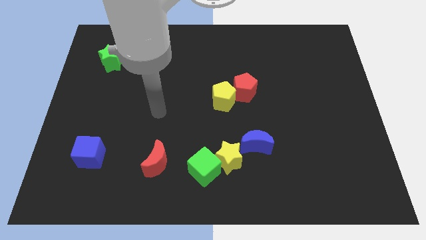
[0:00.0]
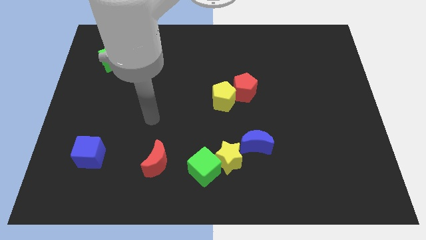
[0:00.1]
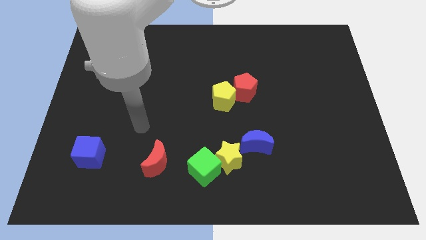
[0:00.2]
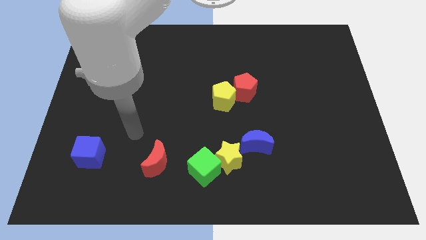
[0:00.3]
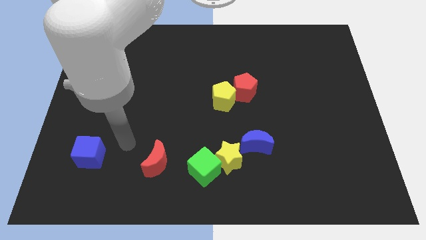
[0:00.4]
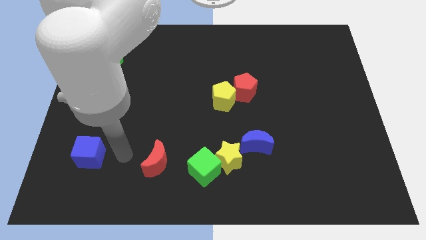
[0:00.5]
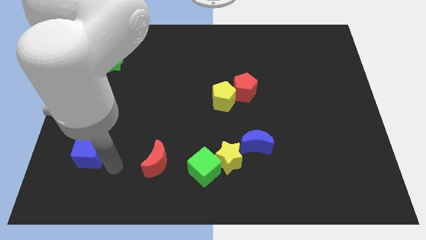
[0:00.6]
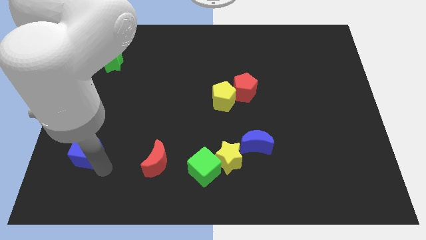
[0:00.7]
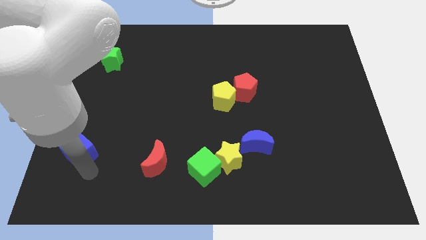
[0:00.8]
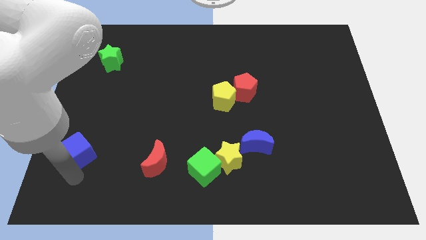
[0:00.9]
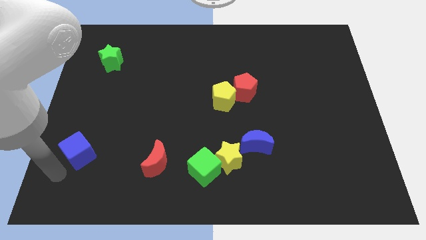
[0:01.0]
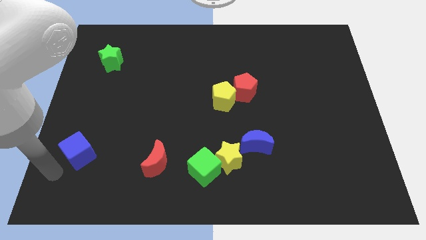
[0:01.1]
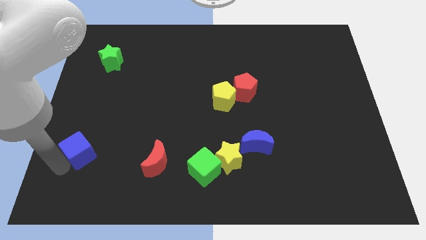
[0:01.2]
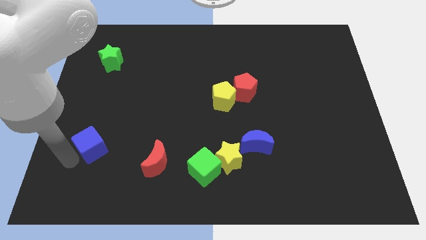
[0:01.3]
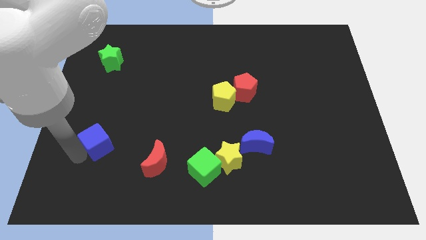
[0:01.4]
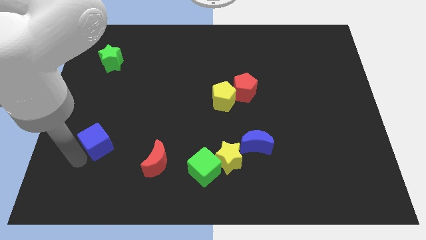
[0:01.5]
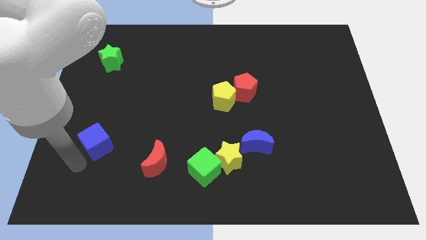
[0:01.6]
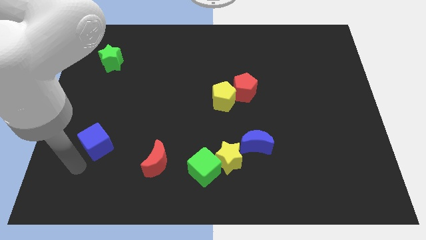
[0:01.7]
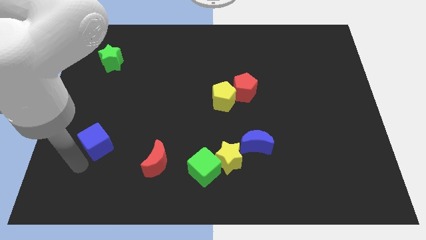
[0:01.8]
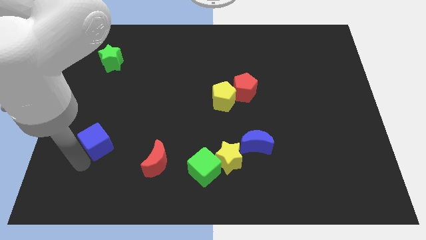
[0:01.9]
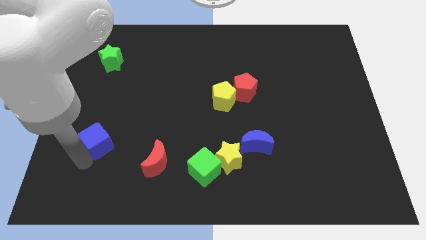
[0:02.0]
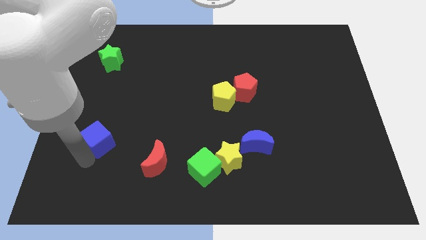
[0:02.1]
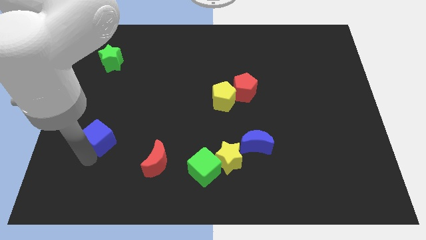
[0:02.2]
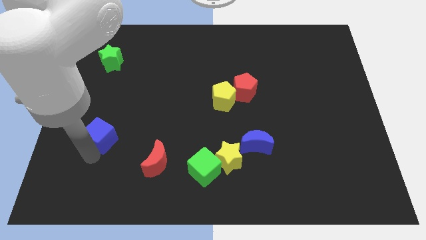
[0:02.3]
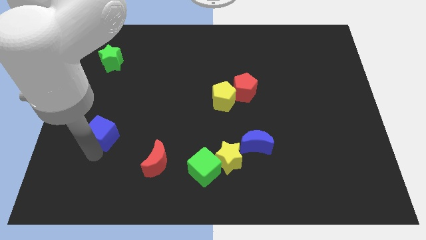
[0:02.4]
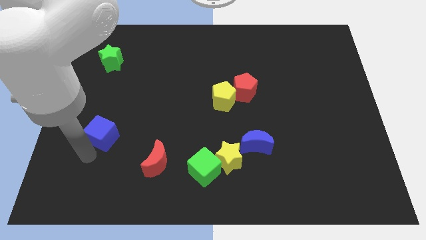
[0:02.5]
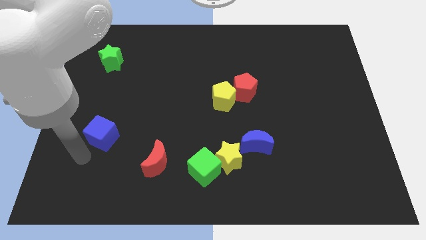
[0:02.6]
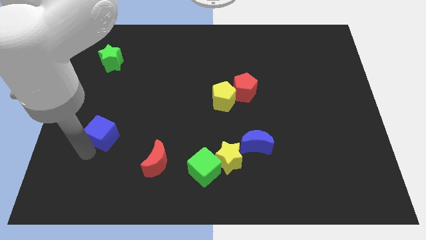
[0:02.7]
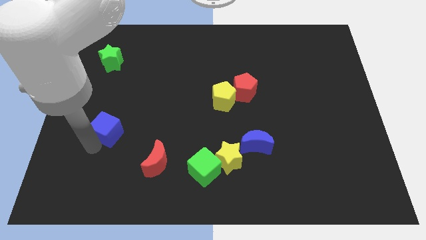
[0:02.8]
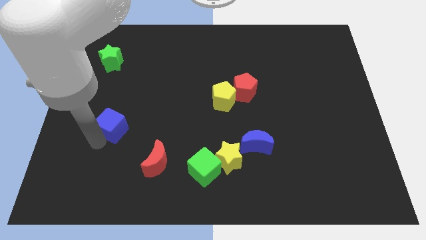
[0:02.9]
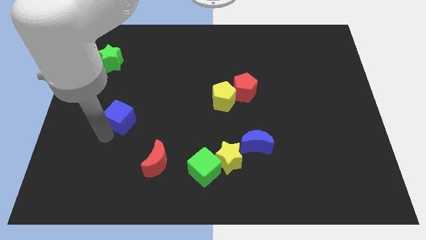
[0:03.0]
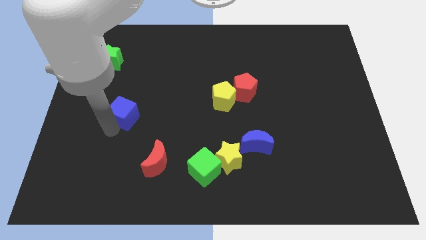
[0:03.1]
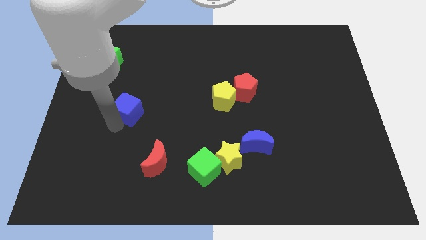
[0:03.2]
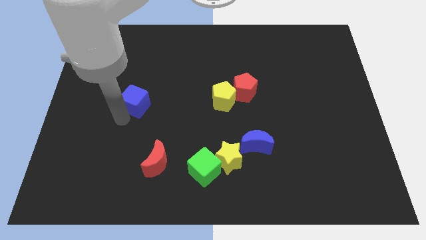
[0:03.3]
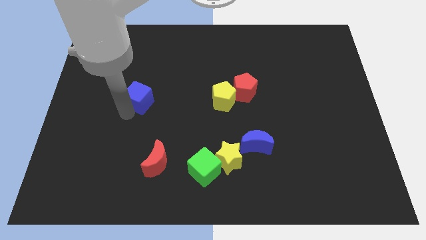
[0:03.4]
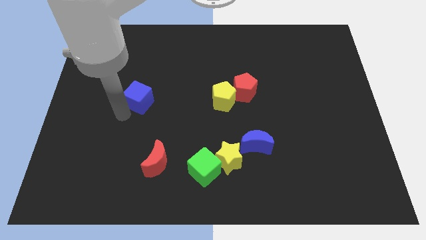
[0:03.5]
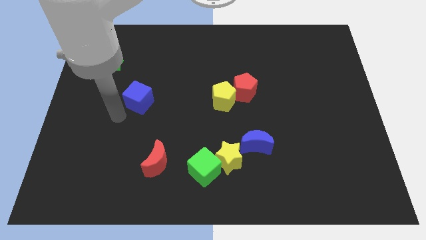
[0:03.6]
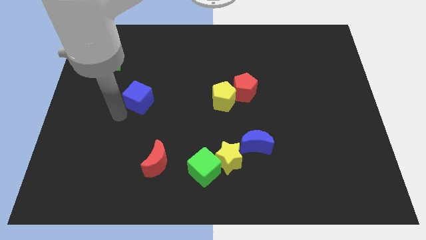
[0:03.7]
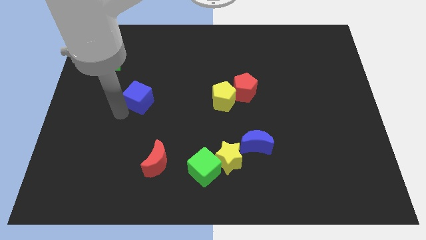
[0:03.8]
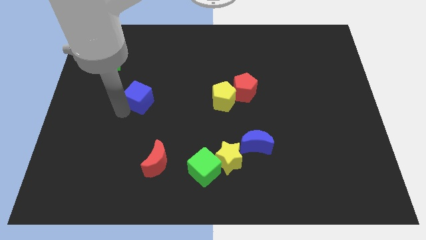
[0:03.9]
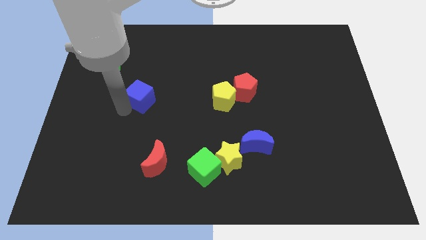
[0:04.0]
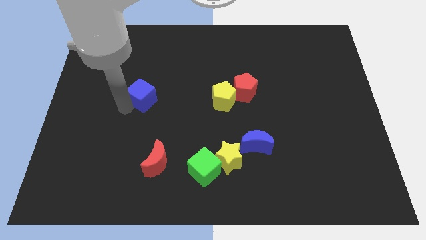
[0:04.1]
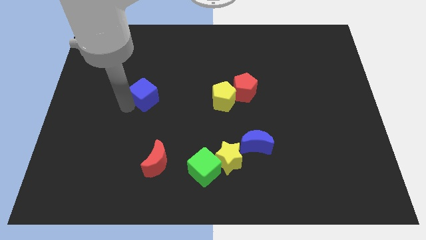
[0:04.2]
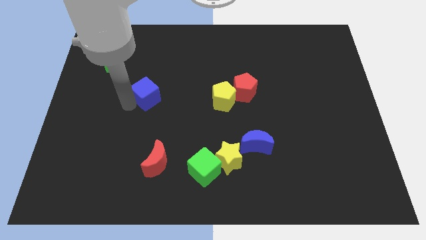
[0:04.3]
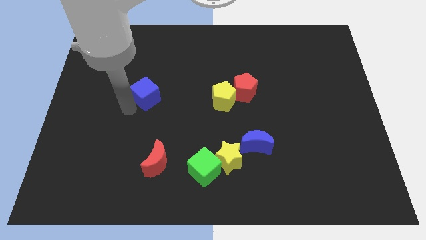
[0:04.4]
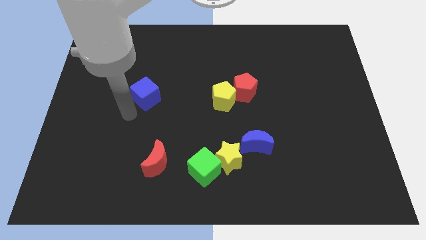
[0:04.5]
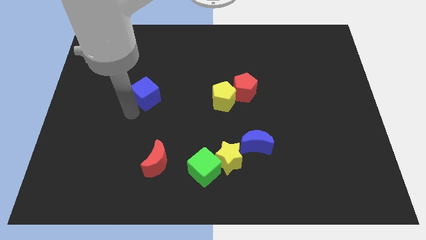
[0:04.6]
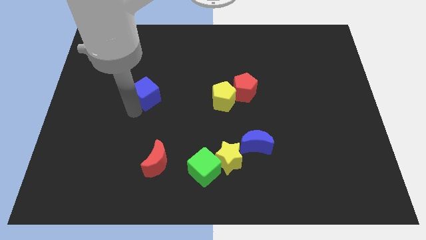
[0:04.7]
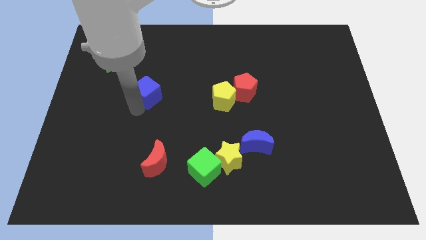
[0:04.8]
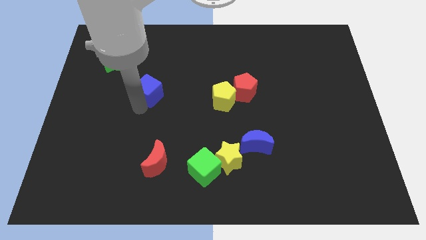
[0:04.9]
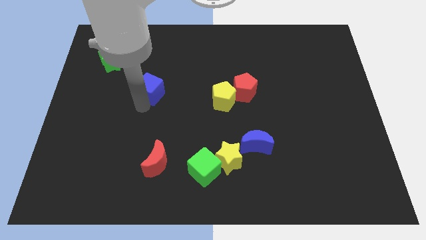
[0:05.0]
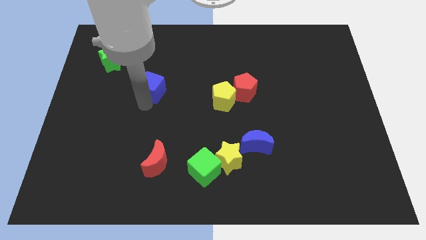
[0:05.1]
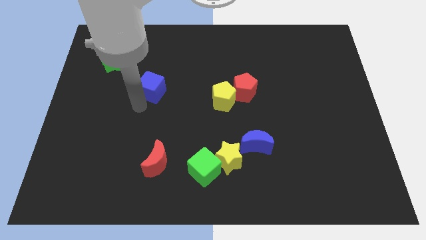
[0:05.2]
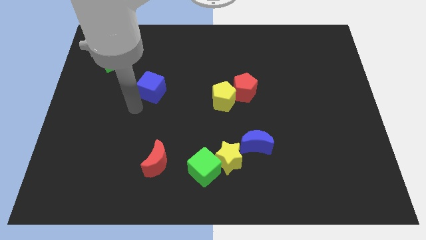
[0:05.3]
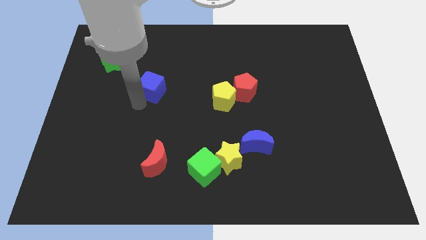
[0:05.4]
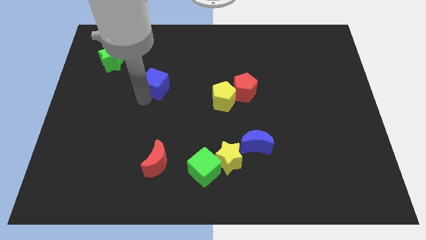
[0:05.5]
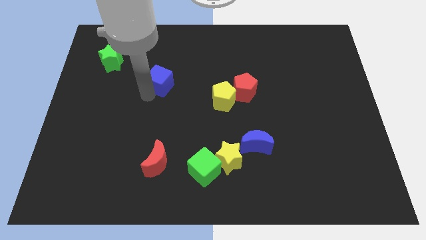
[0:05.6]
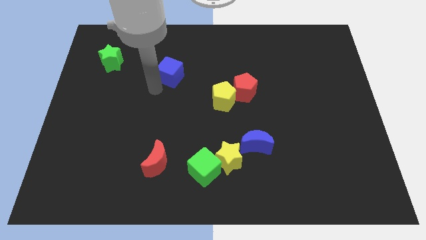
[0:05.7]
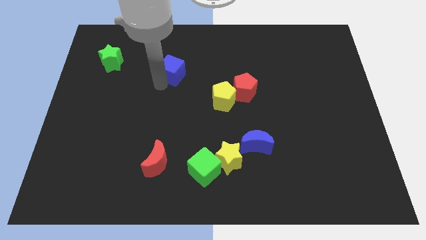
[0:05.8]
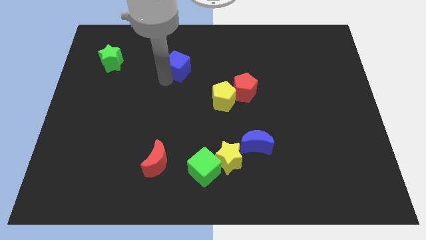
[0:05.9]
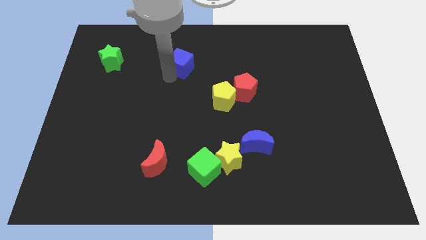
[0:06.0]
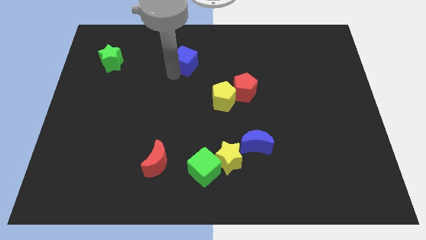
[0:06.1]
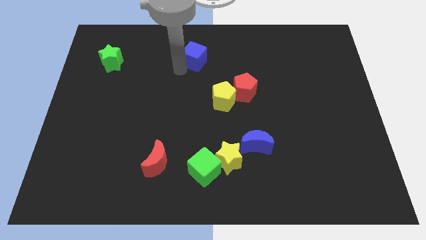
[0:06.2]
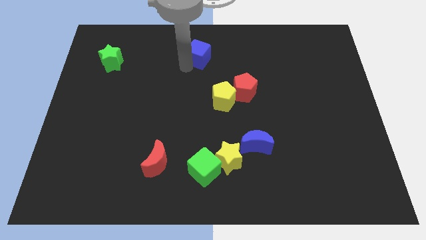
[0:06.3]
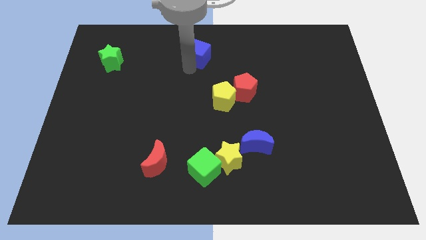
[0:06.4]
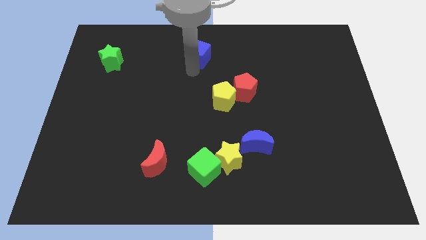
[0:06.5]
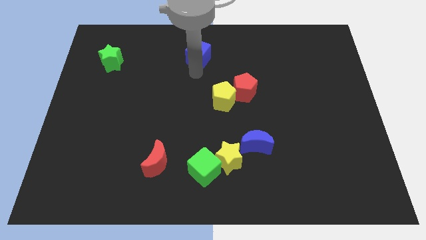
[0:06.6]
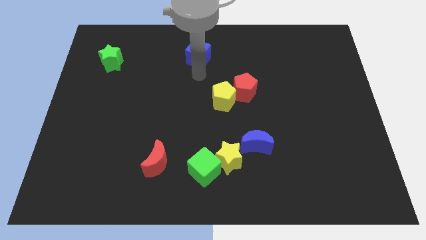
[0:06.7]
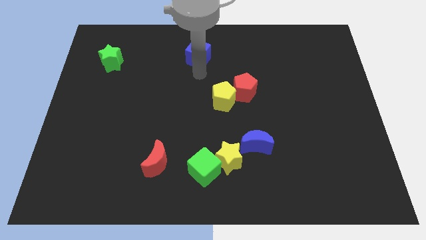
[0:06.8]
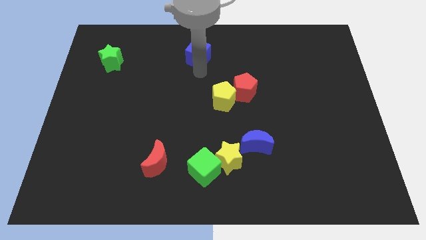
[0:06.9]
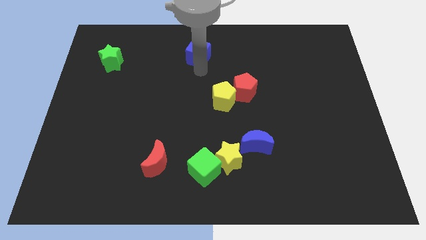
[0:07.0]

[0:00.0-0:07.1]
slide the blue cube to the top

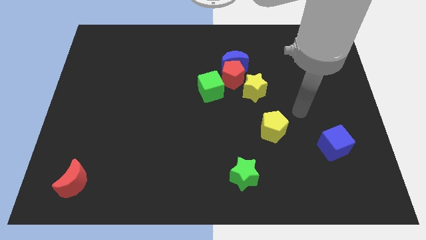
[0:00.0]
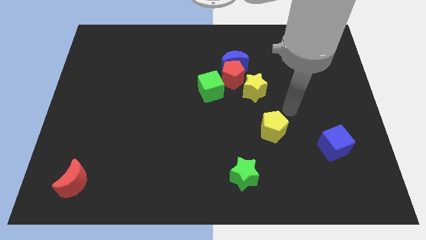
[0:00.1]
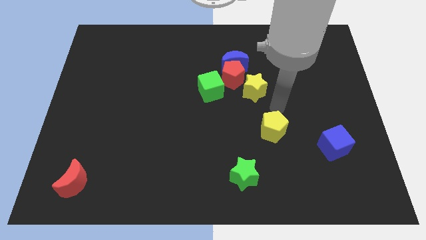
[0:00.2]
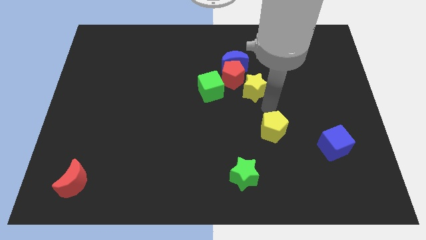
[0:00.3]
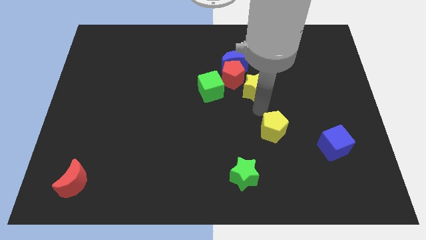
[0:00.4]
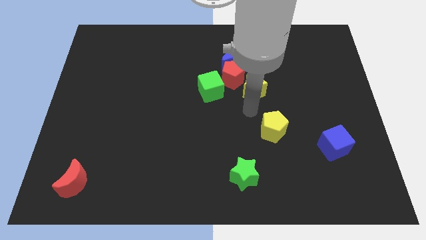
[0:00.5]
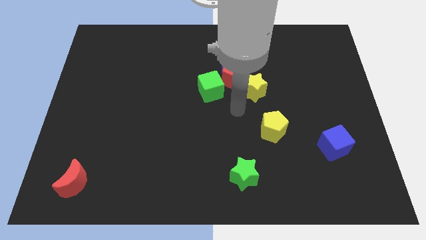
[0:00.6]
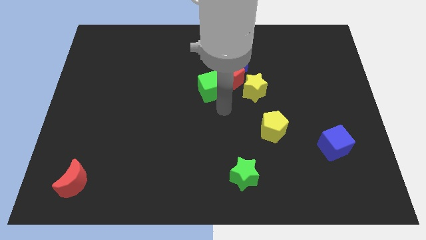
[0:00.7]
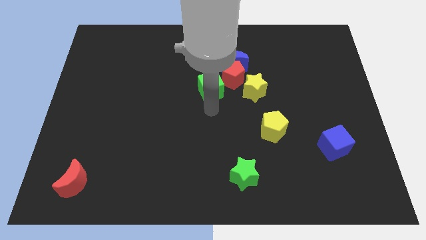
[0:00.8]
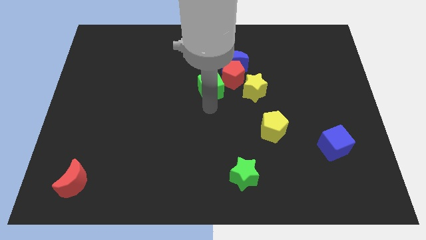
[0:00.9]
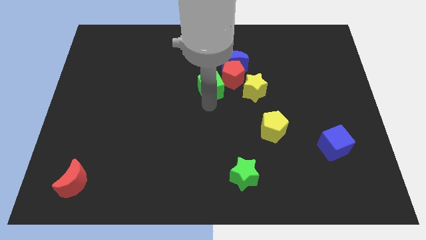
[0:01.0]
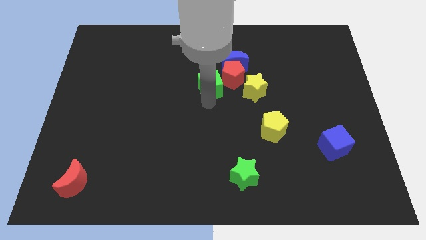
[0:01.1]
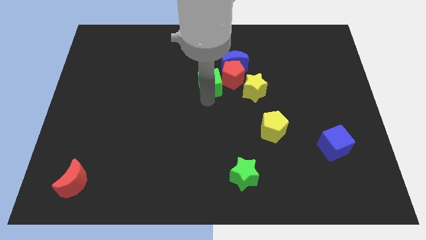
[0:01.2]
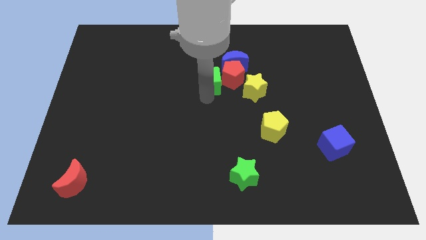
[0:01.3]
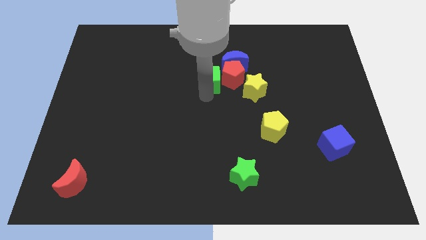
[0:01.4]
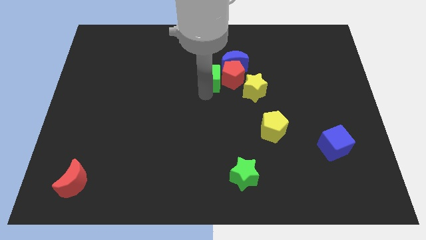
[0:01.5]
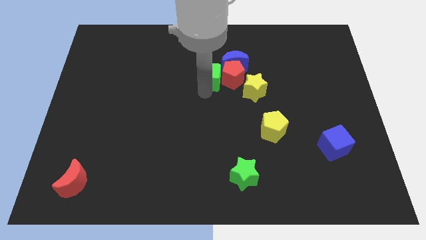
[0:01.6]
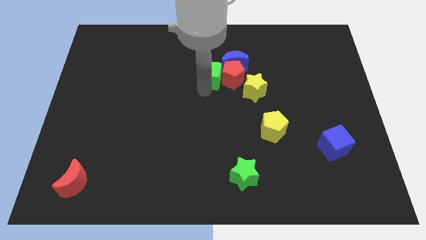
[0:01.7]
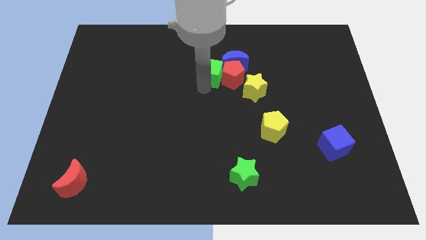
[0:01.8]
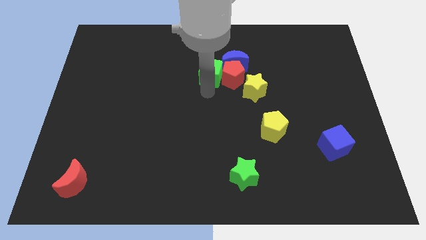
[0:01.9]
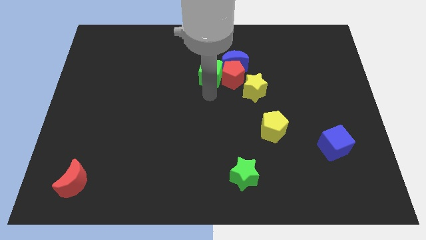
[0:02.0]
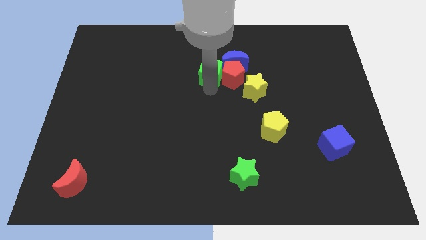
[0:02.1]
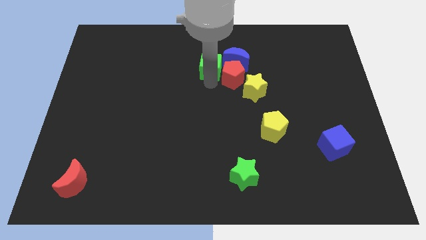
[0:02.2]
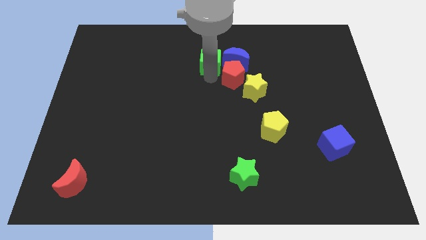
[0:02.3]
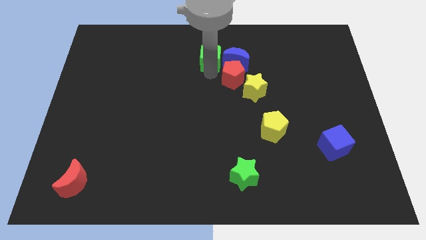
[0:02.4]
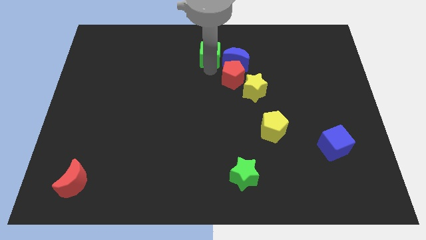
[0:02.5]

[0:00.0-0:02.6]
put the green cube to the top side
